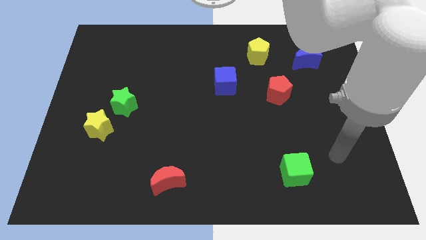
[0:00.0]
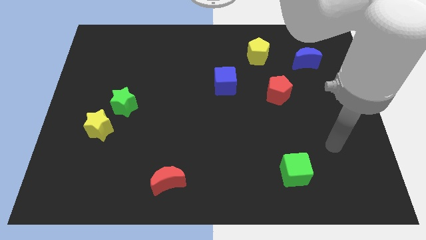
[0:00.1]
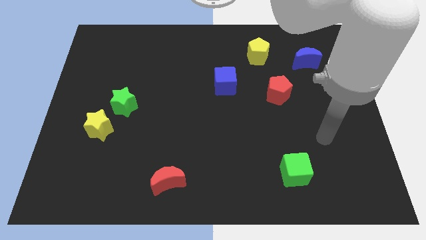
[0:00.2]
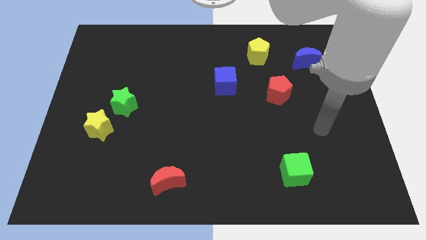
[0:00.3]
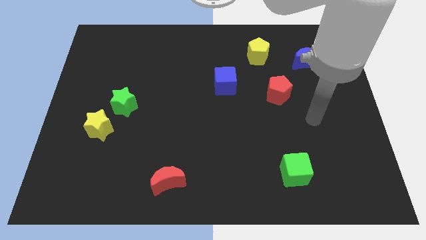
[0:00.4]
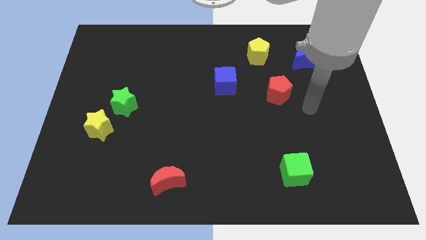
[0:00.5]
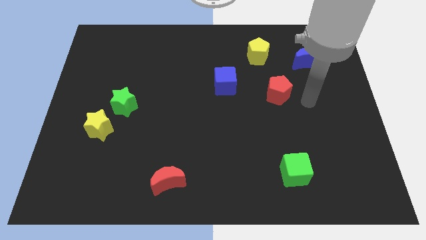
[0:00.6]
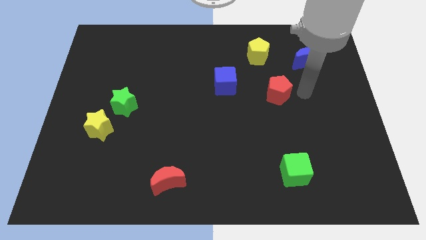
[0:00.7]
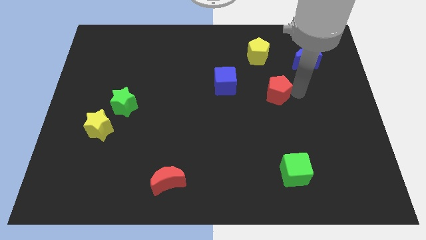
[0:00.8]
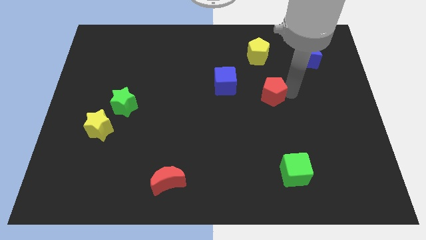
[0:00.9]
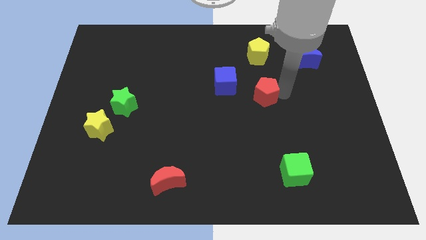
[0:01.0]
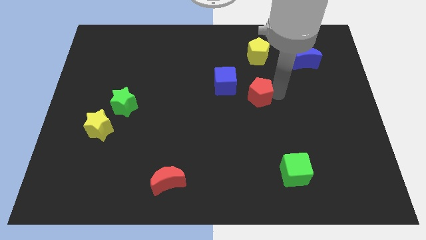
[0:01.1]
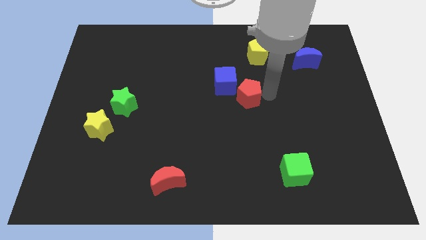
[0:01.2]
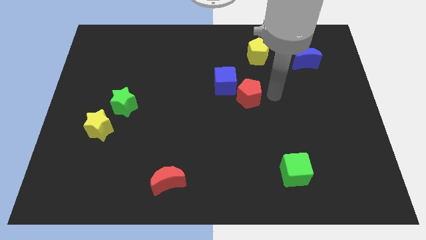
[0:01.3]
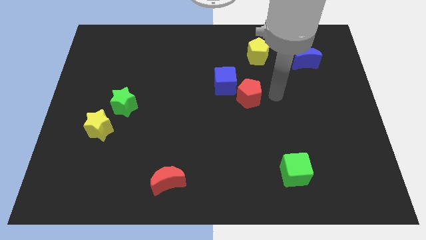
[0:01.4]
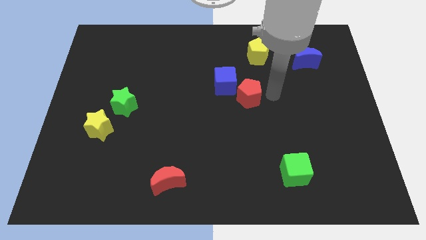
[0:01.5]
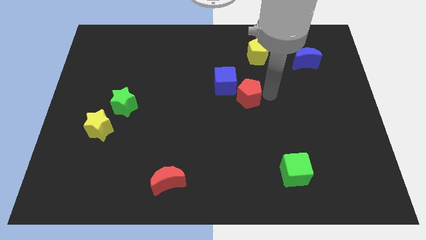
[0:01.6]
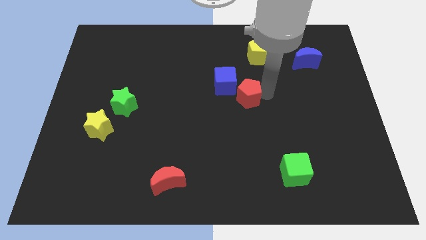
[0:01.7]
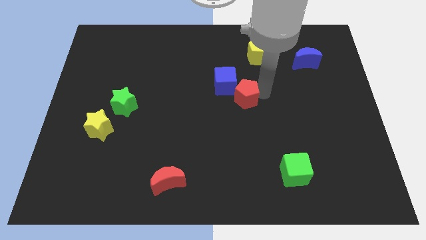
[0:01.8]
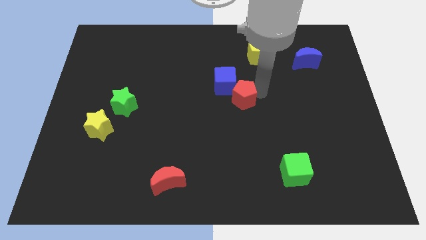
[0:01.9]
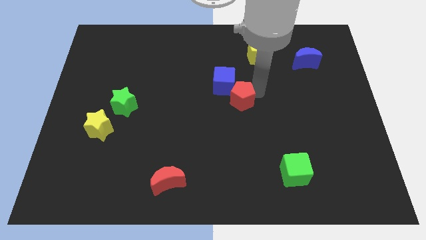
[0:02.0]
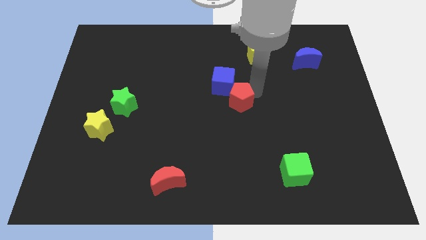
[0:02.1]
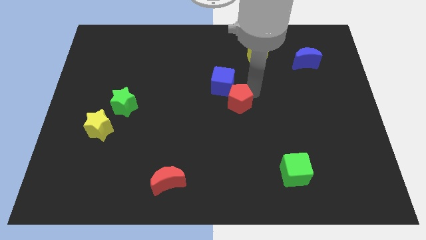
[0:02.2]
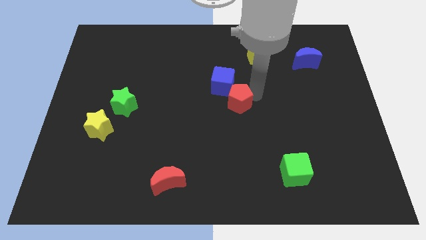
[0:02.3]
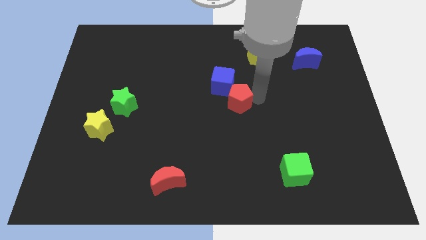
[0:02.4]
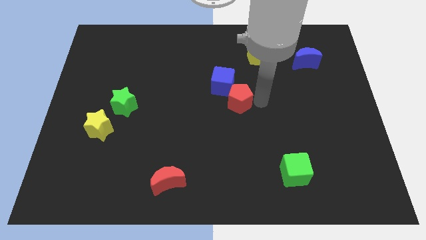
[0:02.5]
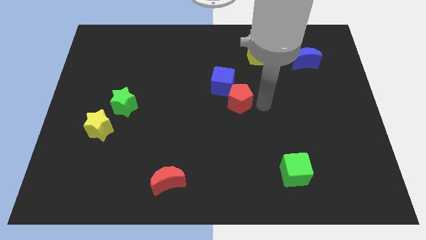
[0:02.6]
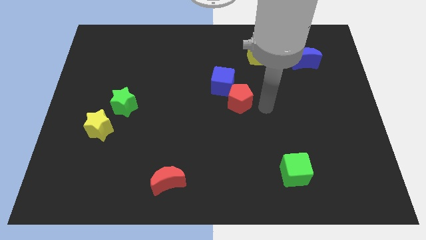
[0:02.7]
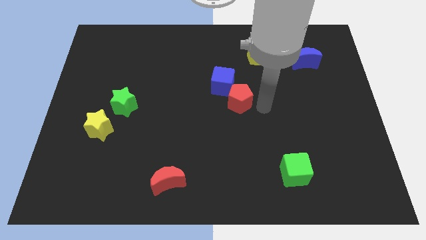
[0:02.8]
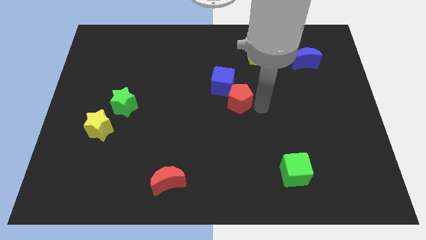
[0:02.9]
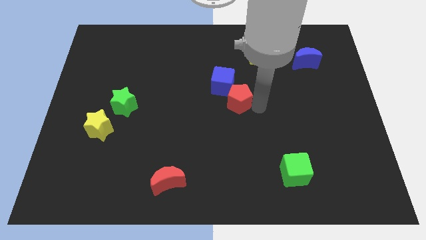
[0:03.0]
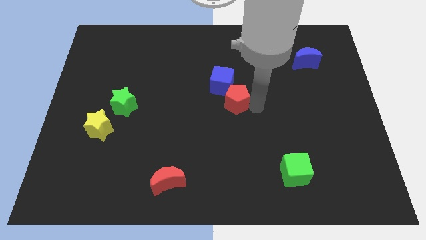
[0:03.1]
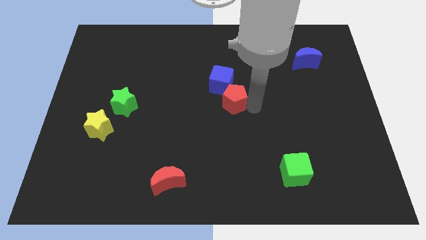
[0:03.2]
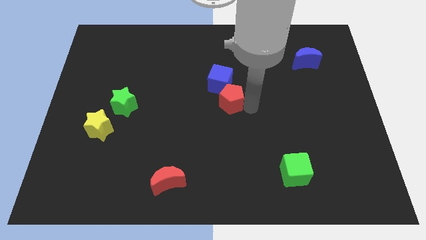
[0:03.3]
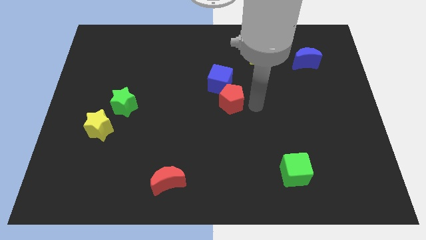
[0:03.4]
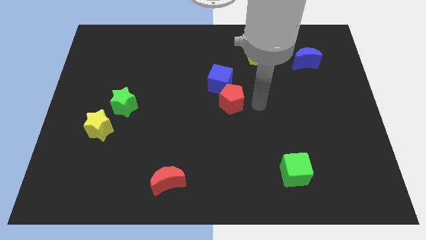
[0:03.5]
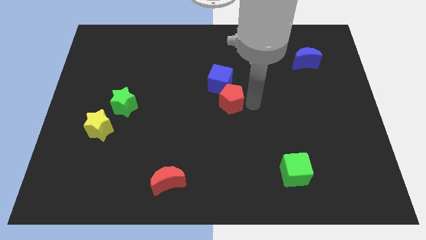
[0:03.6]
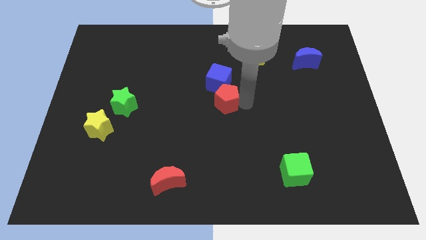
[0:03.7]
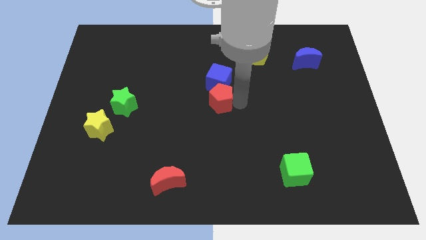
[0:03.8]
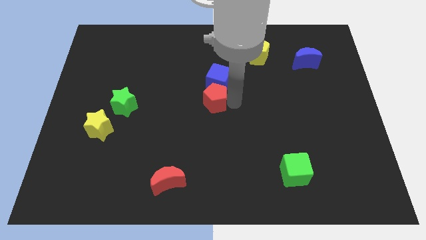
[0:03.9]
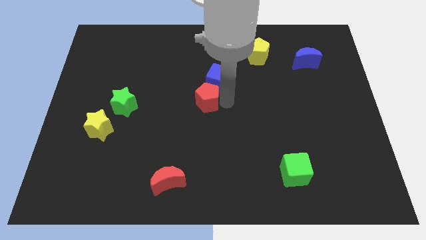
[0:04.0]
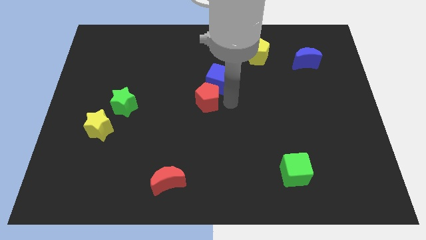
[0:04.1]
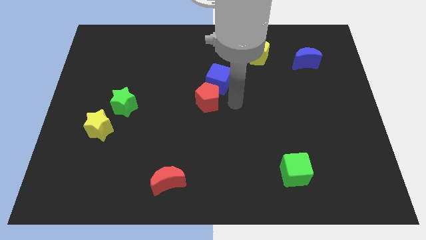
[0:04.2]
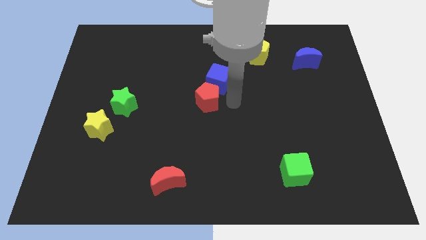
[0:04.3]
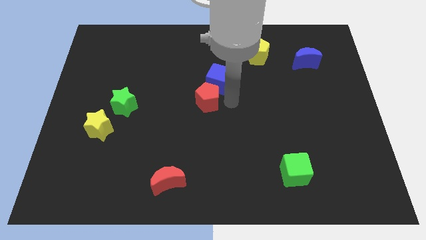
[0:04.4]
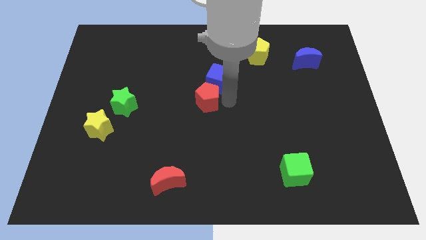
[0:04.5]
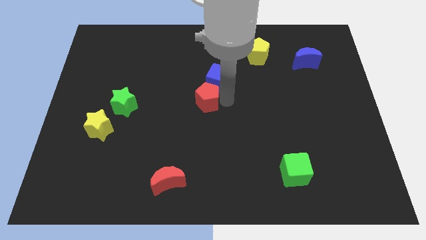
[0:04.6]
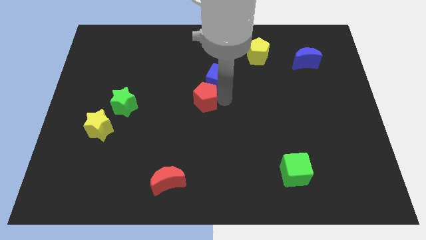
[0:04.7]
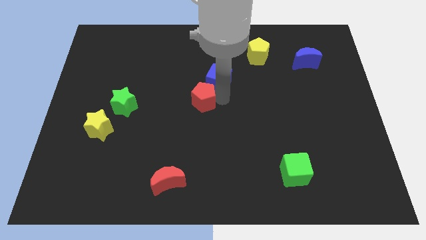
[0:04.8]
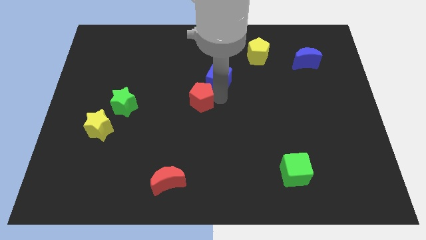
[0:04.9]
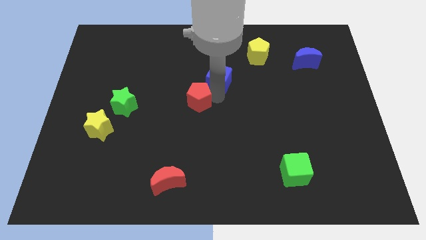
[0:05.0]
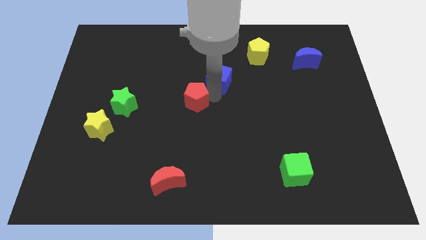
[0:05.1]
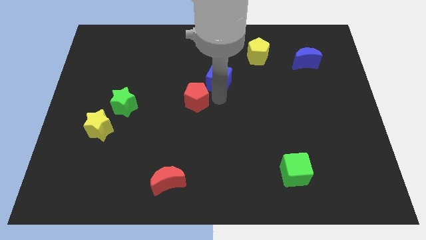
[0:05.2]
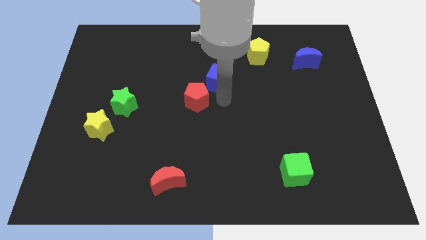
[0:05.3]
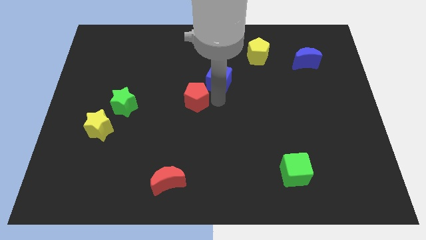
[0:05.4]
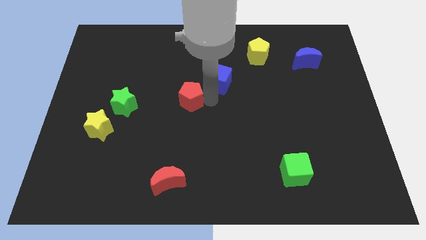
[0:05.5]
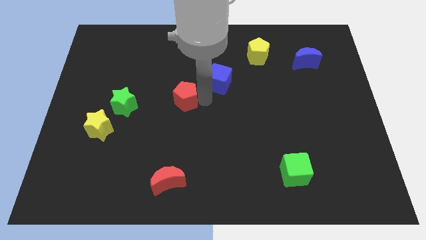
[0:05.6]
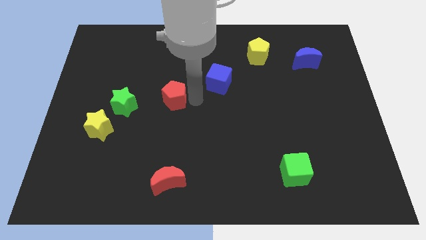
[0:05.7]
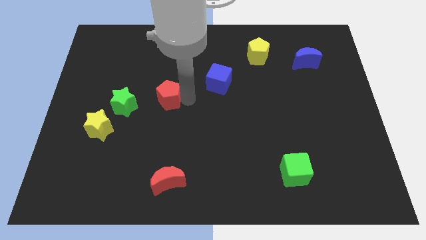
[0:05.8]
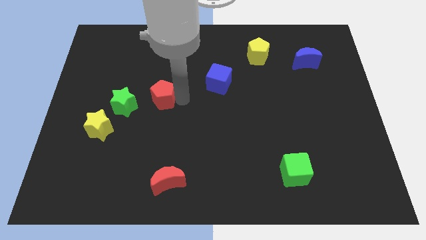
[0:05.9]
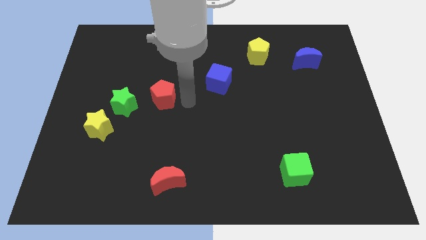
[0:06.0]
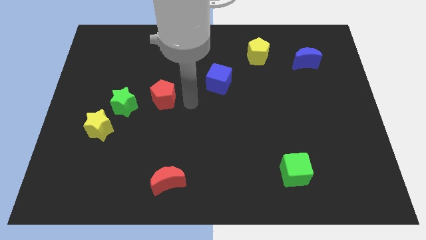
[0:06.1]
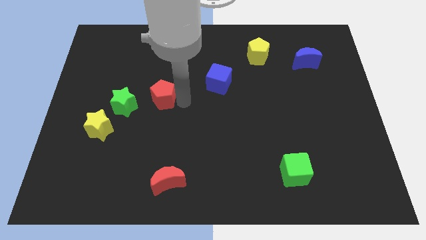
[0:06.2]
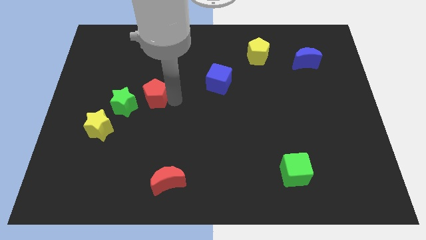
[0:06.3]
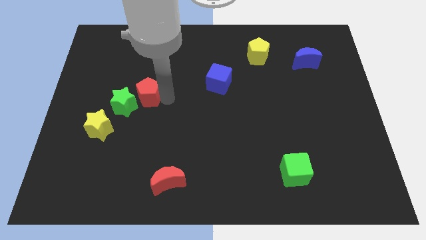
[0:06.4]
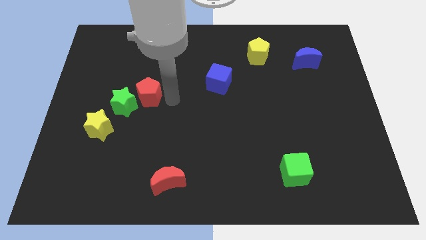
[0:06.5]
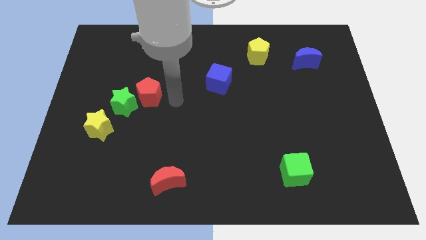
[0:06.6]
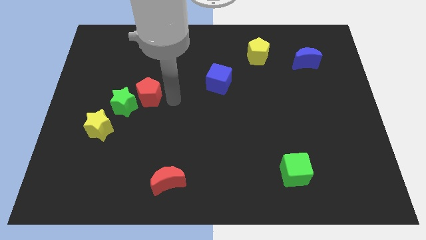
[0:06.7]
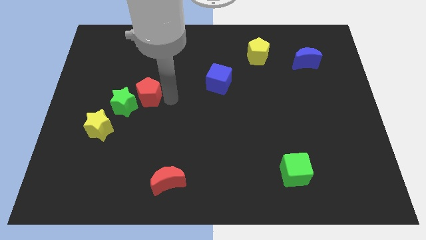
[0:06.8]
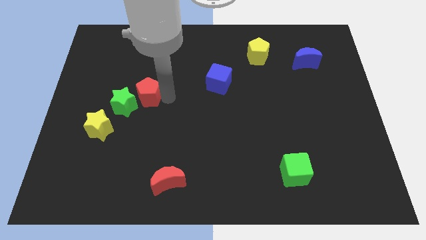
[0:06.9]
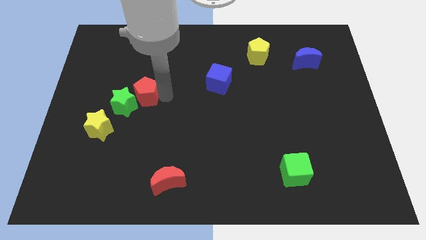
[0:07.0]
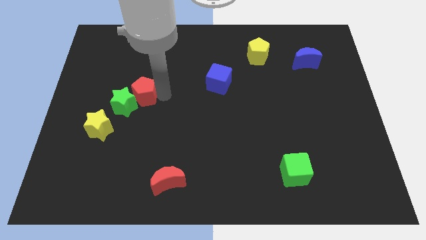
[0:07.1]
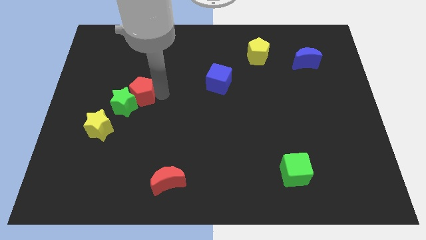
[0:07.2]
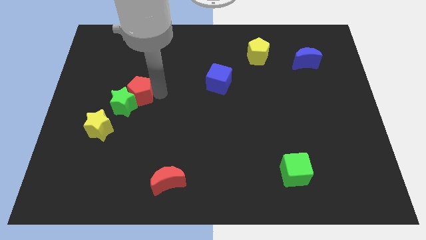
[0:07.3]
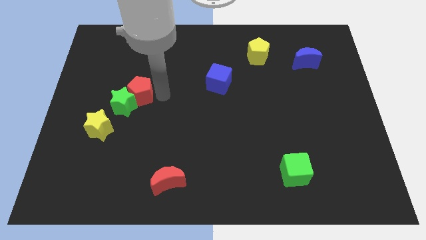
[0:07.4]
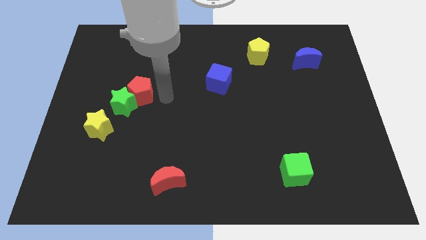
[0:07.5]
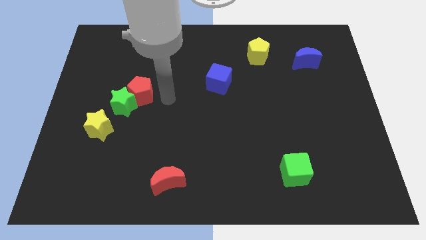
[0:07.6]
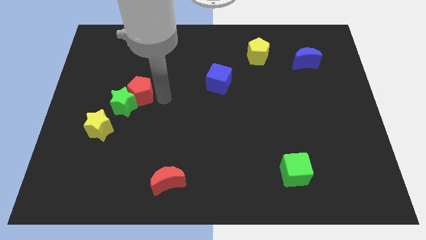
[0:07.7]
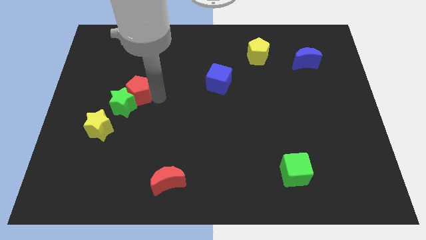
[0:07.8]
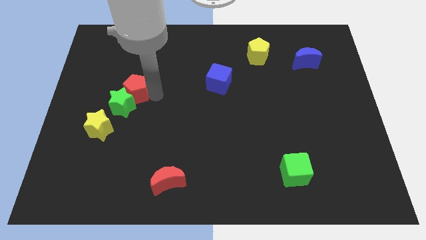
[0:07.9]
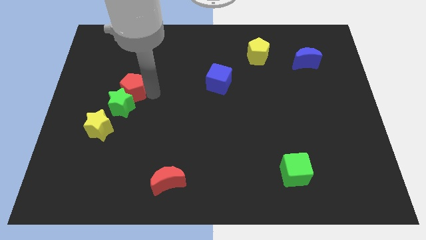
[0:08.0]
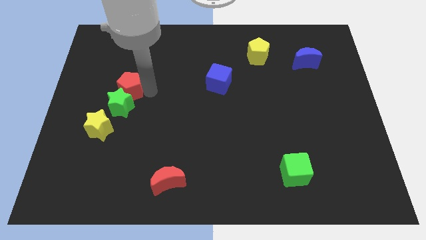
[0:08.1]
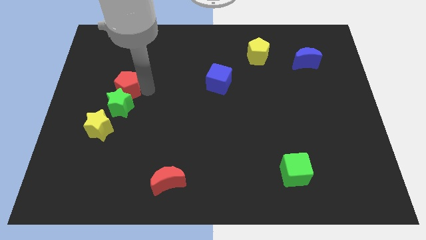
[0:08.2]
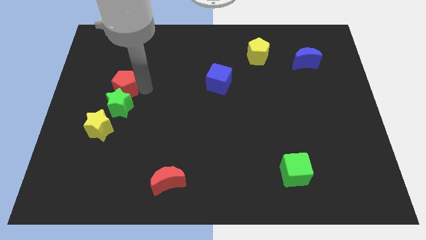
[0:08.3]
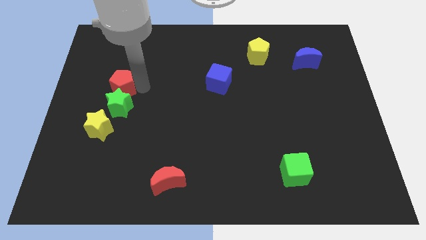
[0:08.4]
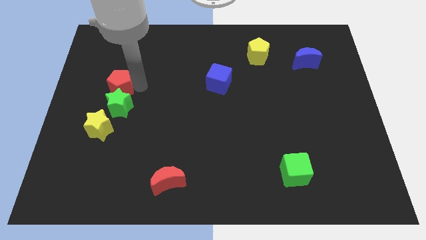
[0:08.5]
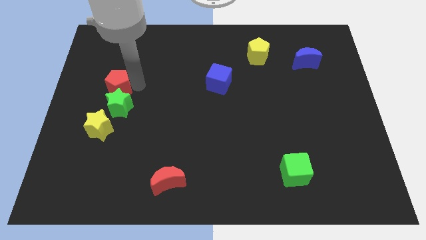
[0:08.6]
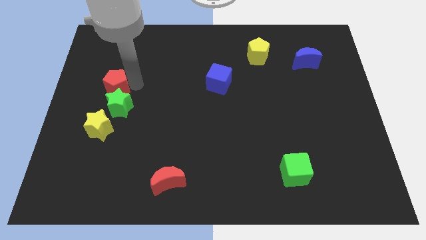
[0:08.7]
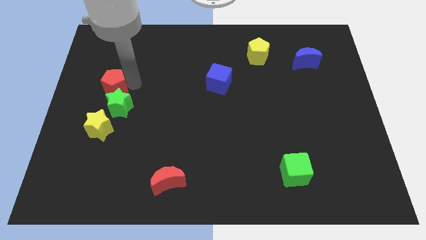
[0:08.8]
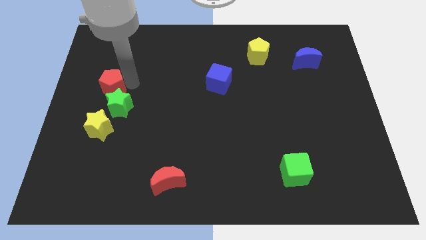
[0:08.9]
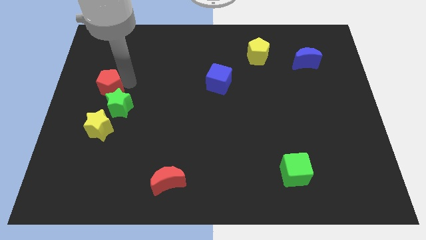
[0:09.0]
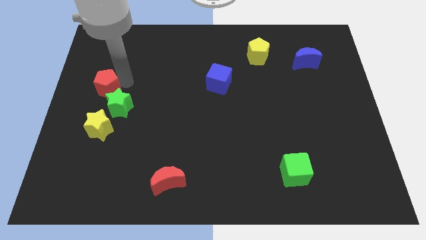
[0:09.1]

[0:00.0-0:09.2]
put the red pentagon to the center left
